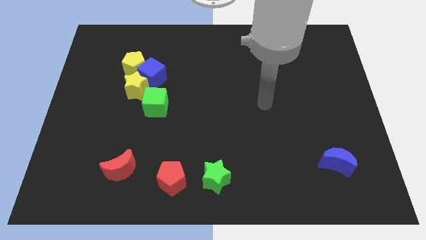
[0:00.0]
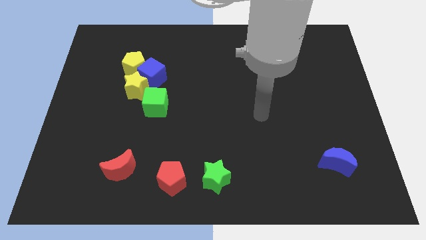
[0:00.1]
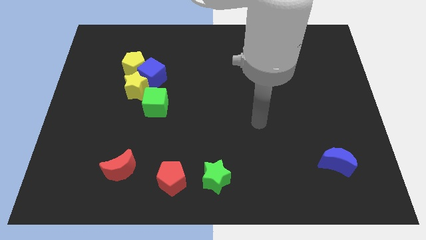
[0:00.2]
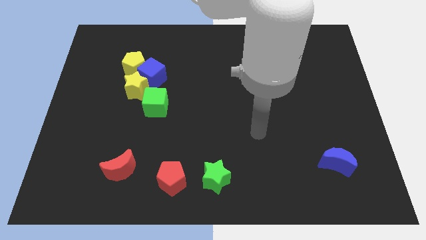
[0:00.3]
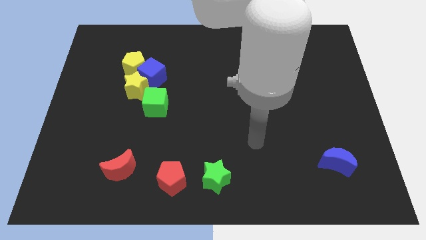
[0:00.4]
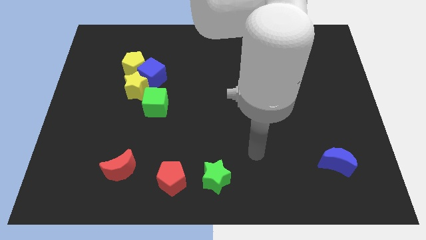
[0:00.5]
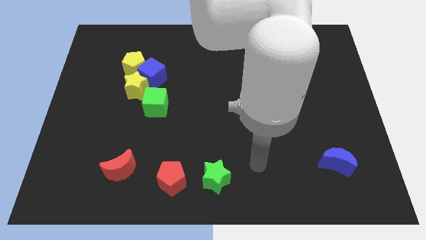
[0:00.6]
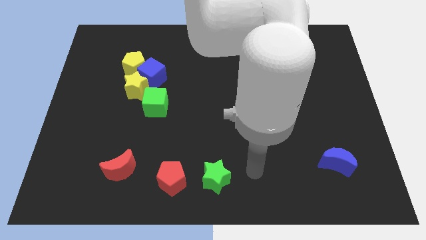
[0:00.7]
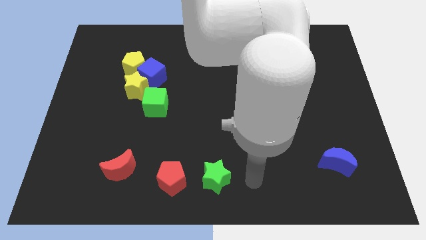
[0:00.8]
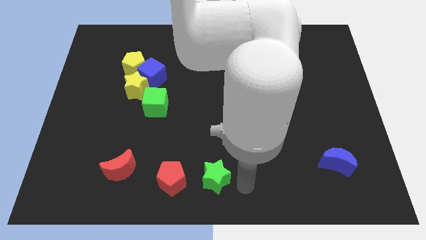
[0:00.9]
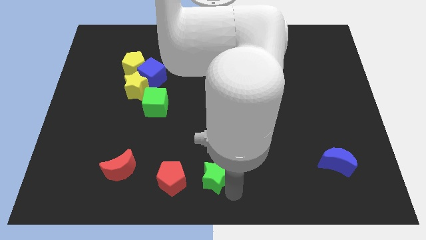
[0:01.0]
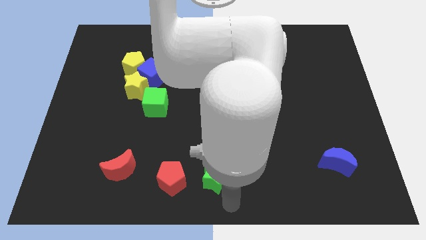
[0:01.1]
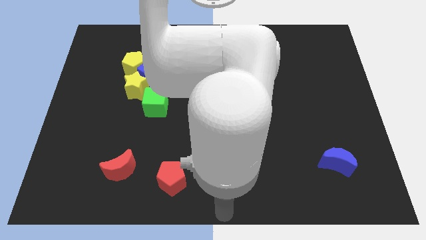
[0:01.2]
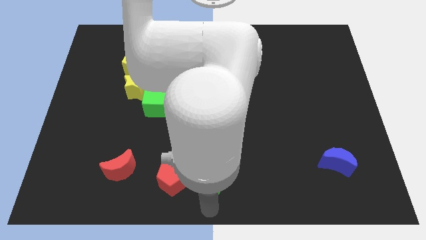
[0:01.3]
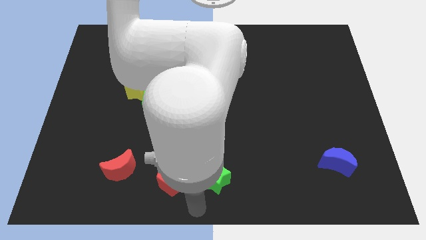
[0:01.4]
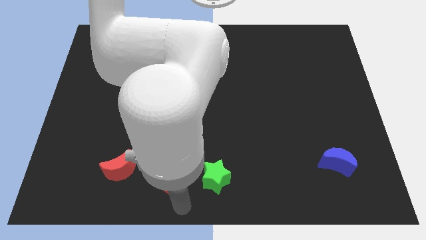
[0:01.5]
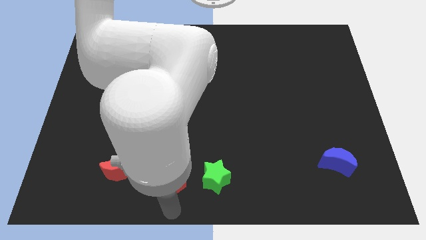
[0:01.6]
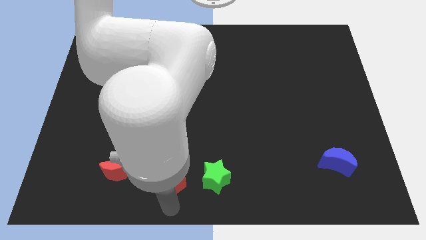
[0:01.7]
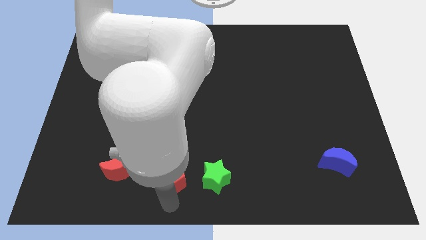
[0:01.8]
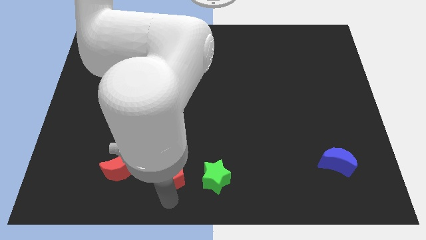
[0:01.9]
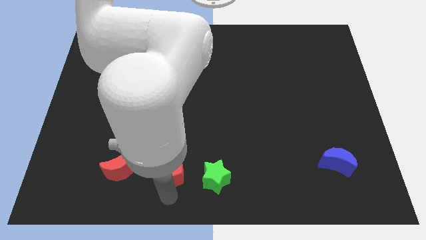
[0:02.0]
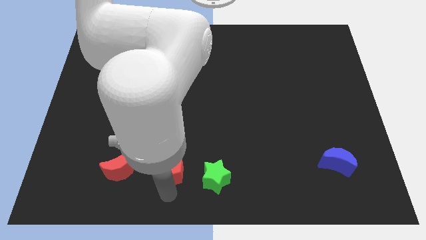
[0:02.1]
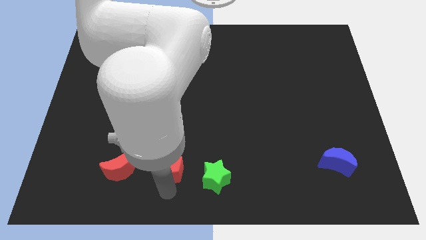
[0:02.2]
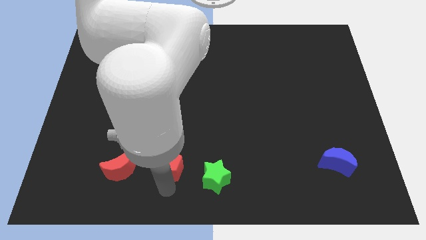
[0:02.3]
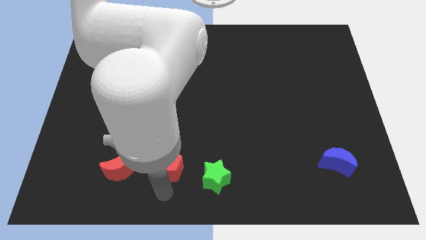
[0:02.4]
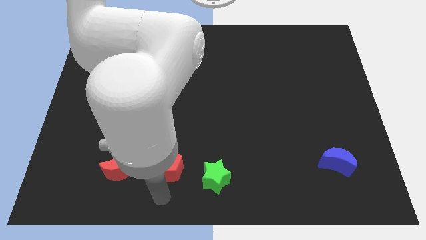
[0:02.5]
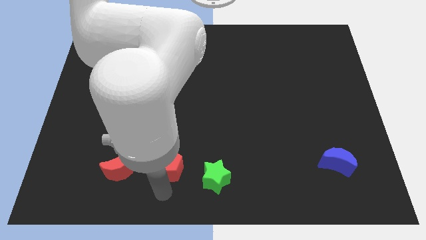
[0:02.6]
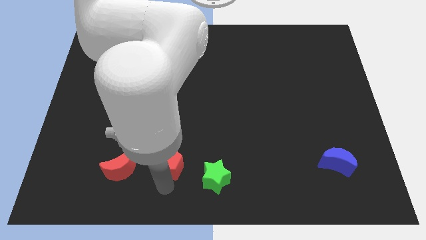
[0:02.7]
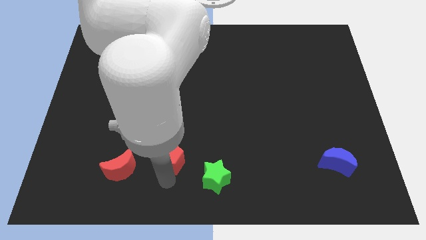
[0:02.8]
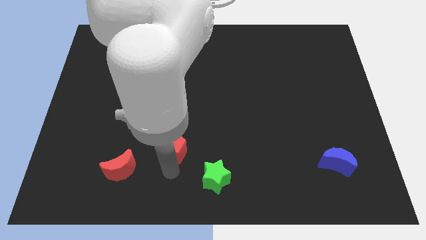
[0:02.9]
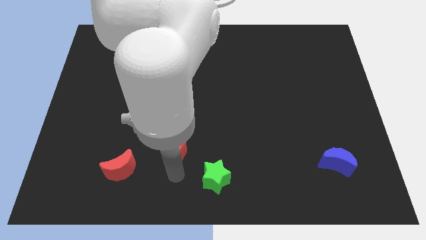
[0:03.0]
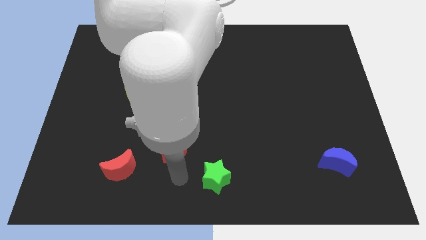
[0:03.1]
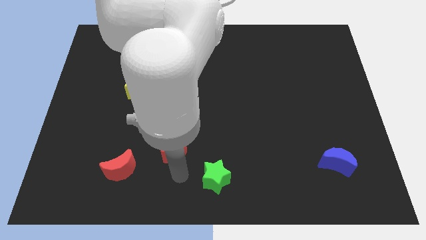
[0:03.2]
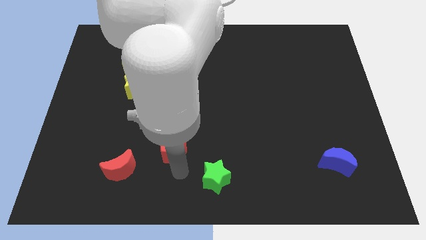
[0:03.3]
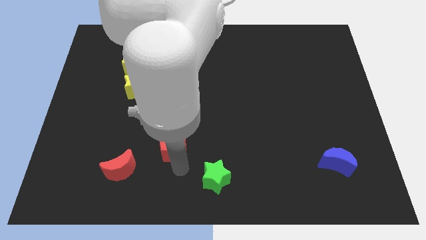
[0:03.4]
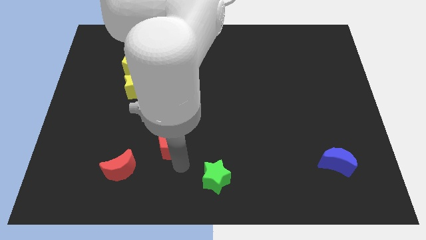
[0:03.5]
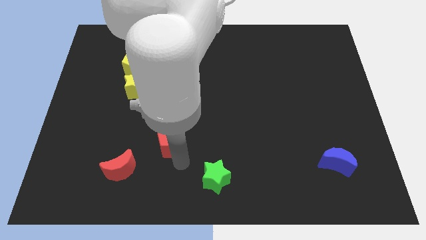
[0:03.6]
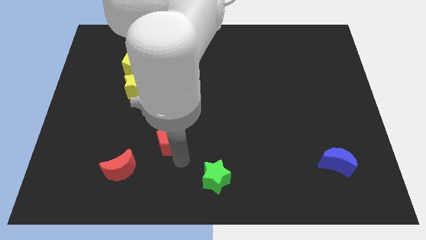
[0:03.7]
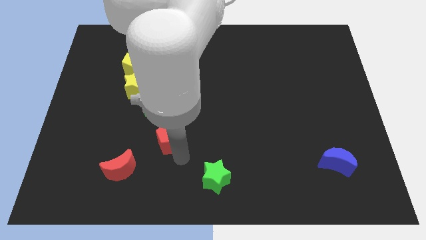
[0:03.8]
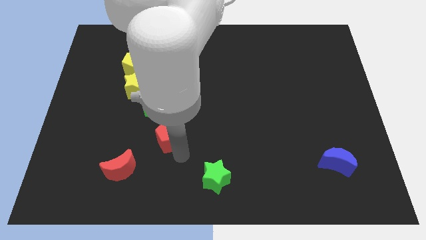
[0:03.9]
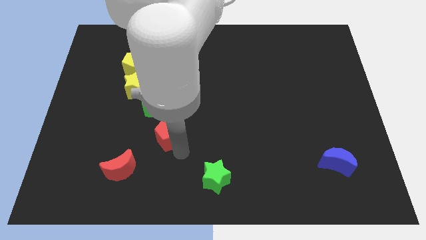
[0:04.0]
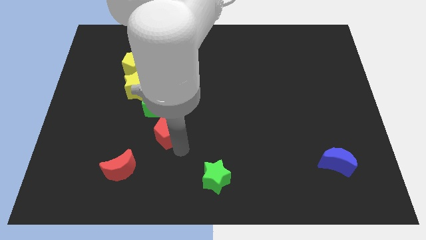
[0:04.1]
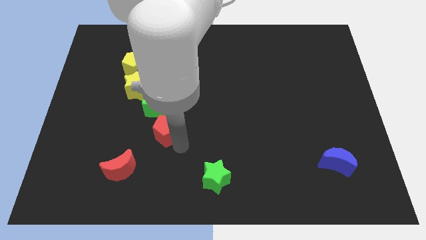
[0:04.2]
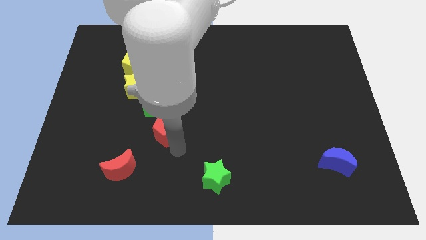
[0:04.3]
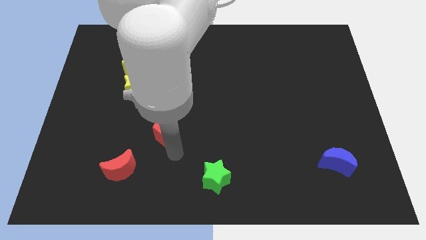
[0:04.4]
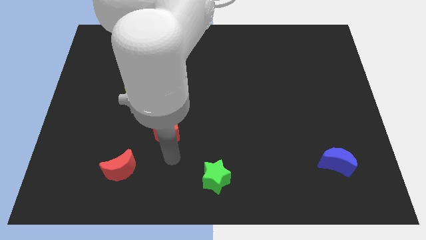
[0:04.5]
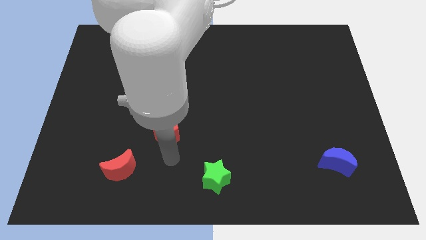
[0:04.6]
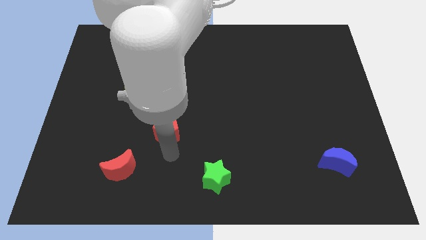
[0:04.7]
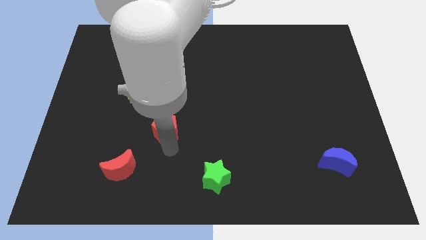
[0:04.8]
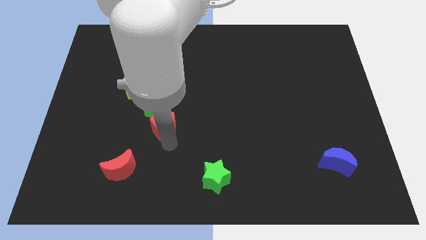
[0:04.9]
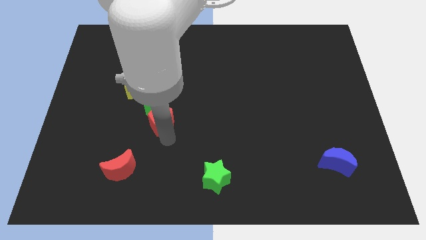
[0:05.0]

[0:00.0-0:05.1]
put the red pentagon to the bottom right side of the yellow star

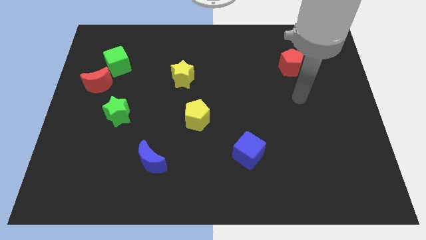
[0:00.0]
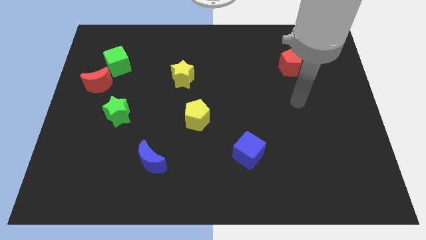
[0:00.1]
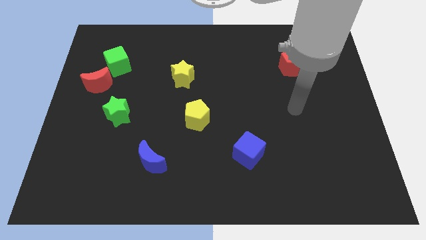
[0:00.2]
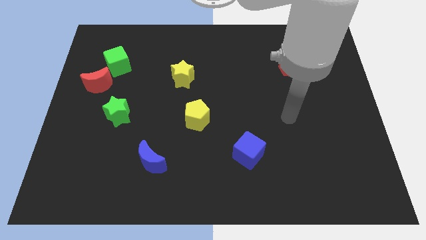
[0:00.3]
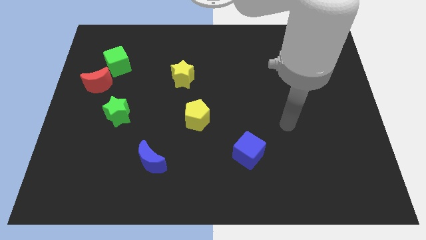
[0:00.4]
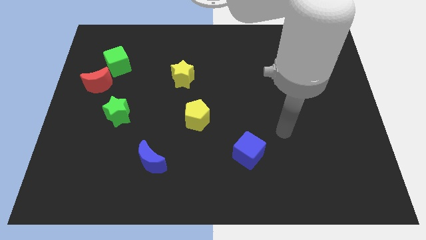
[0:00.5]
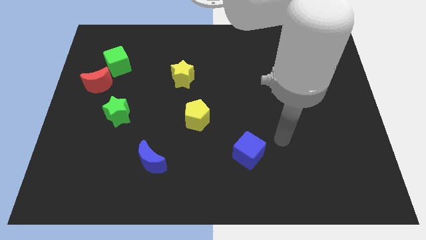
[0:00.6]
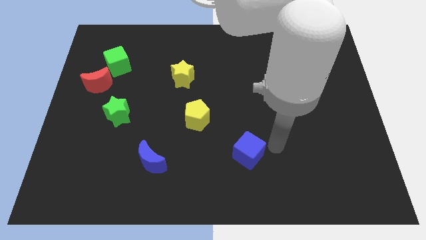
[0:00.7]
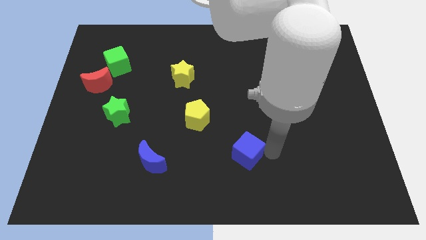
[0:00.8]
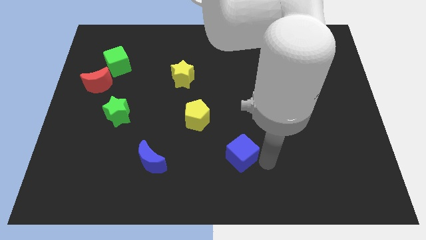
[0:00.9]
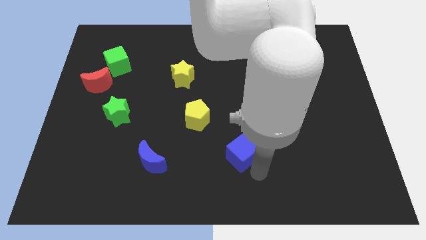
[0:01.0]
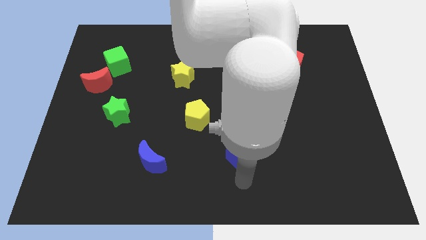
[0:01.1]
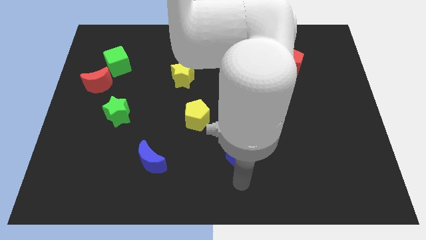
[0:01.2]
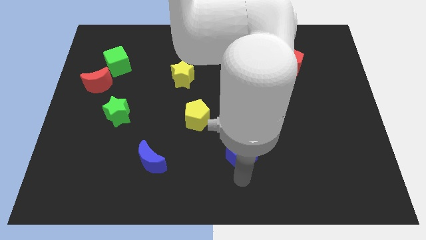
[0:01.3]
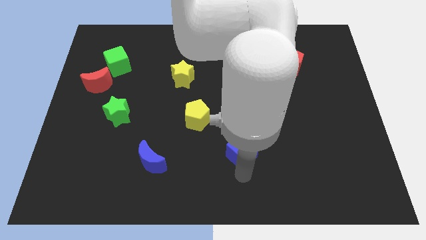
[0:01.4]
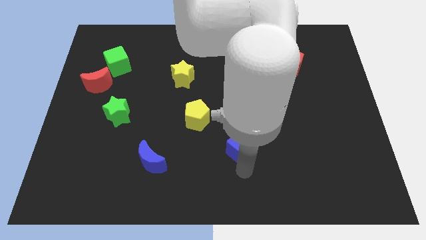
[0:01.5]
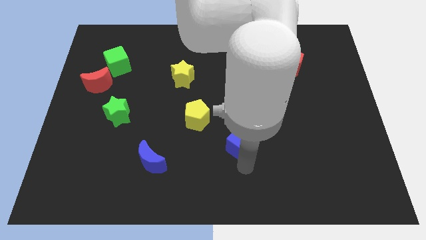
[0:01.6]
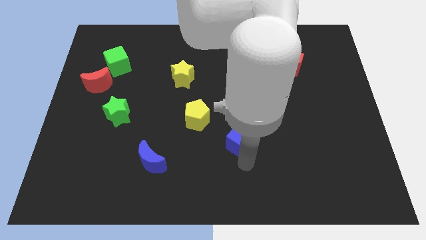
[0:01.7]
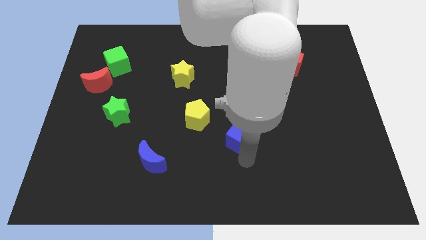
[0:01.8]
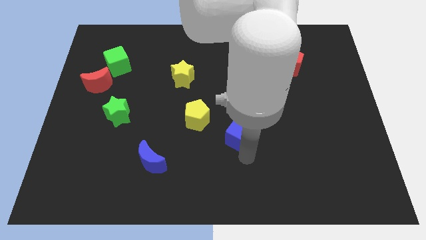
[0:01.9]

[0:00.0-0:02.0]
slide the blue cube to the right of the yellow pentagon

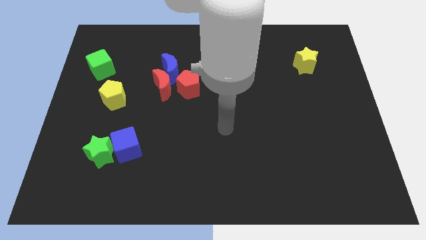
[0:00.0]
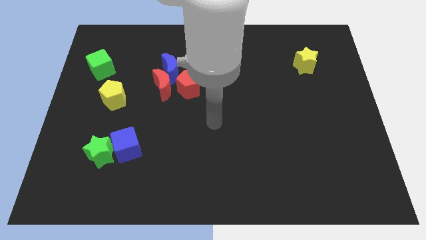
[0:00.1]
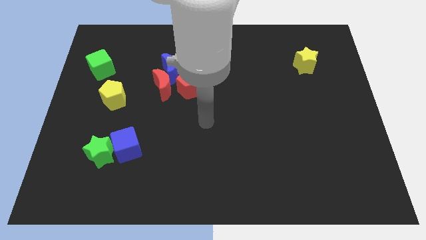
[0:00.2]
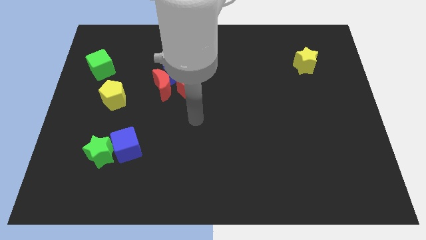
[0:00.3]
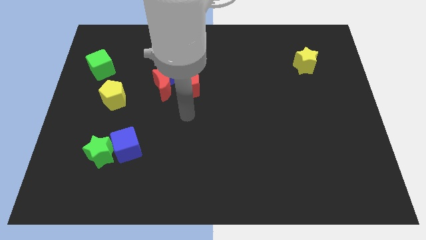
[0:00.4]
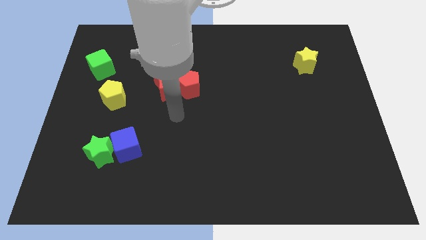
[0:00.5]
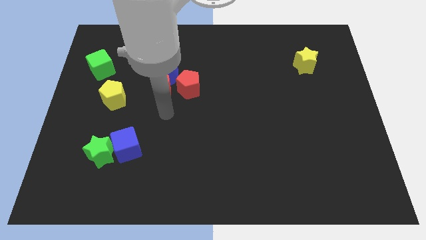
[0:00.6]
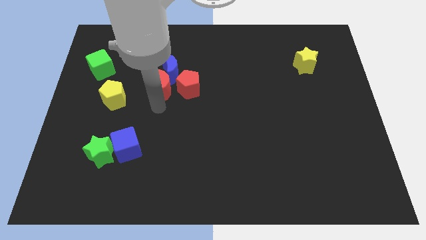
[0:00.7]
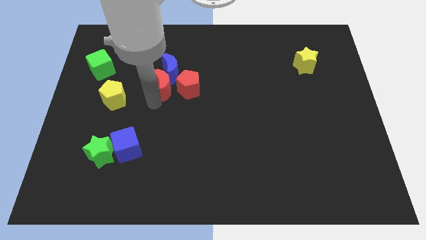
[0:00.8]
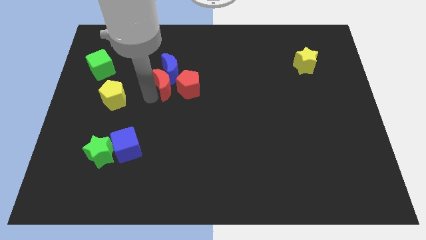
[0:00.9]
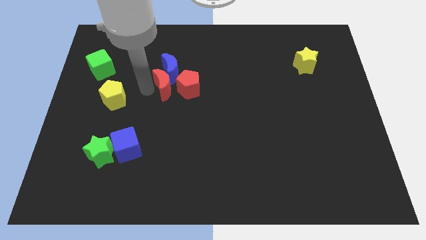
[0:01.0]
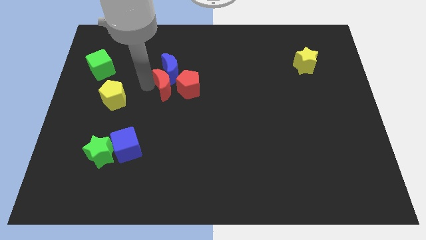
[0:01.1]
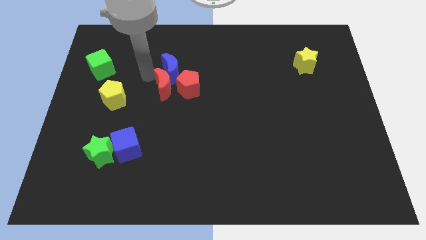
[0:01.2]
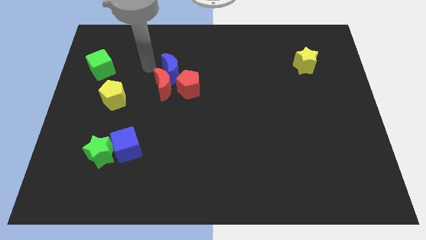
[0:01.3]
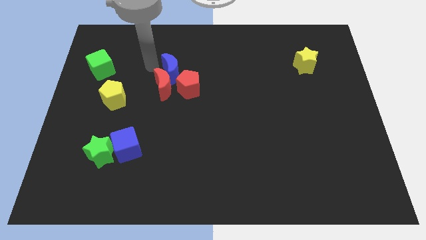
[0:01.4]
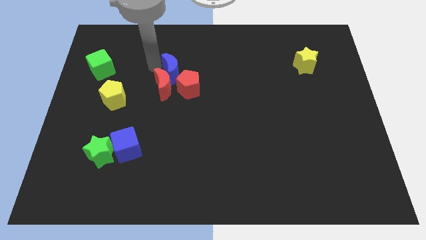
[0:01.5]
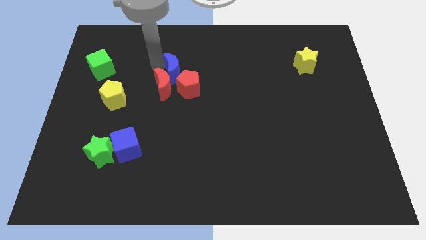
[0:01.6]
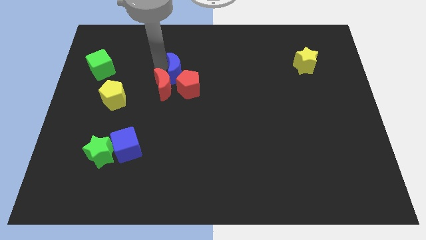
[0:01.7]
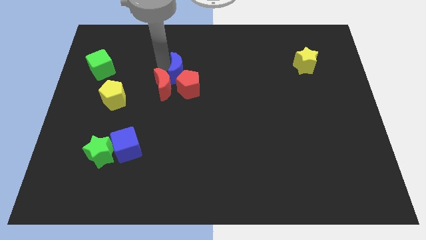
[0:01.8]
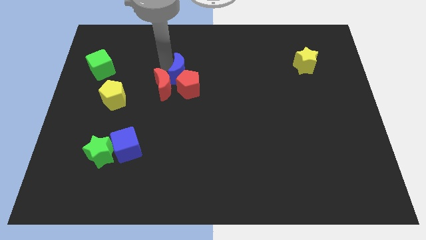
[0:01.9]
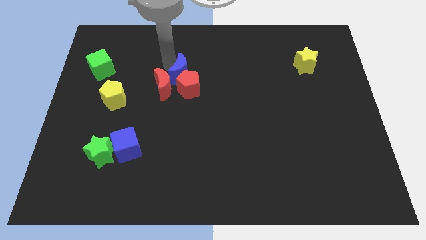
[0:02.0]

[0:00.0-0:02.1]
put the blue moon right of the red moon
